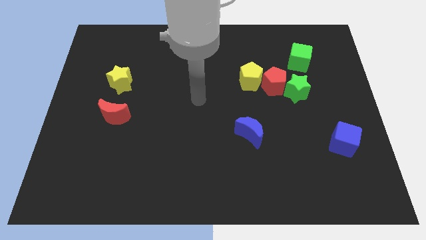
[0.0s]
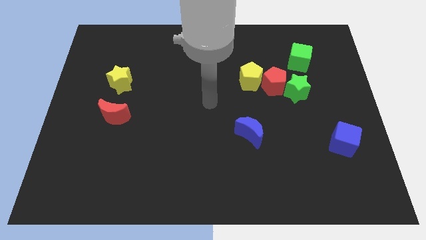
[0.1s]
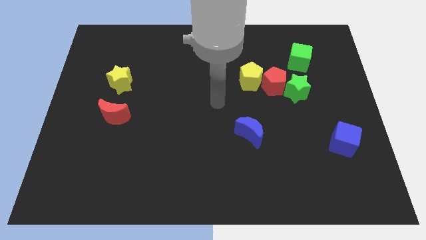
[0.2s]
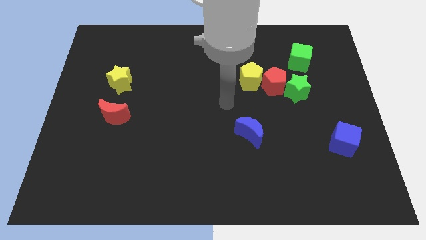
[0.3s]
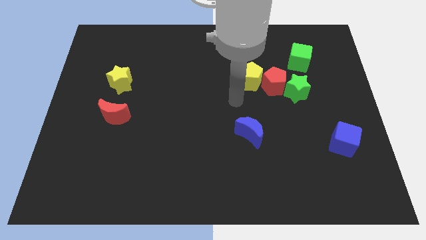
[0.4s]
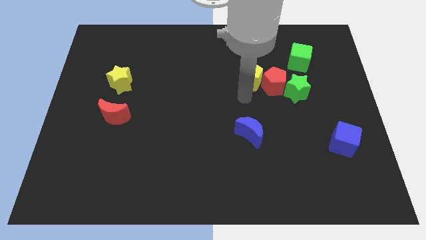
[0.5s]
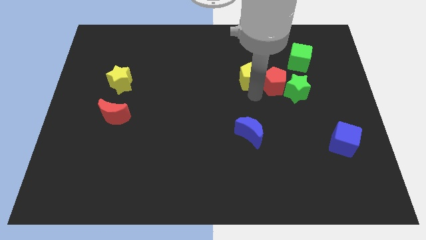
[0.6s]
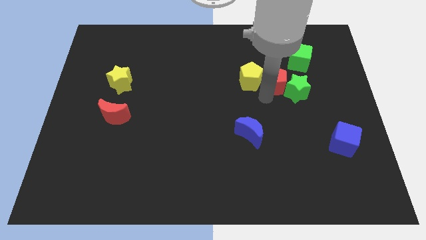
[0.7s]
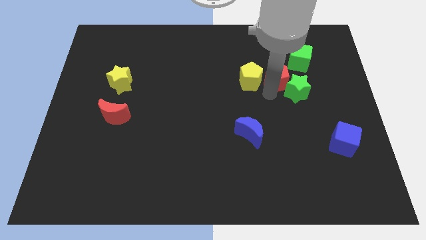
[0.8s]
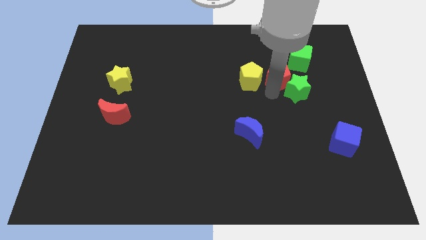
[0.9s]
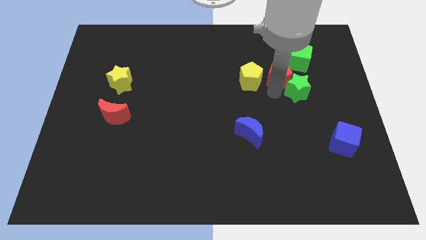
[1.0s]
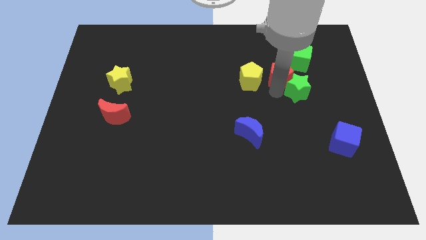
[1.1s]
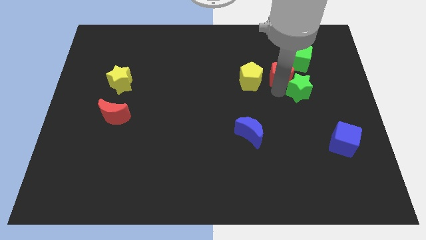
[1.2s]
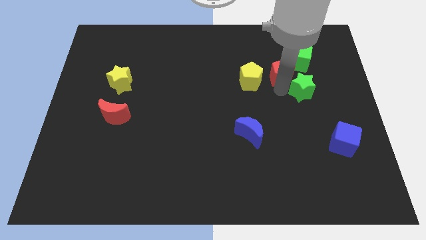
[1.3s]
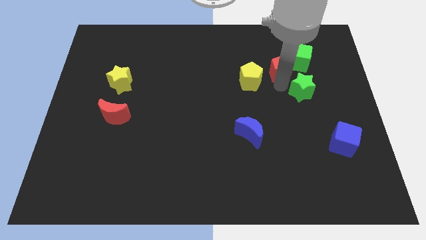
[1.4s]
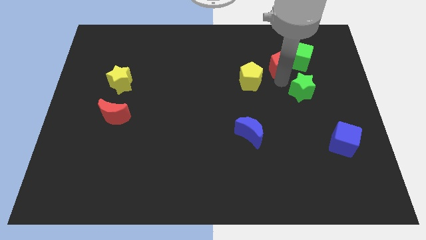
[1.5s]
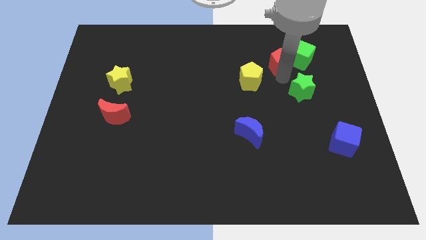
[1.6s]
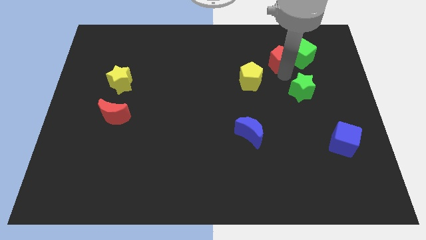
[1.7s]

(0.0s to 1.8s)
separate the green star from the red pentagon

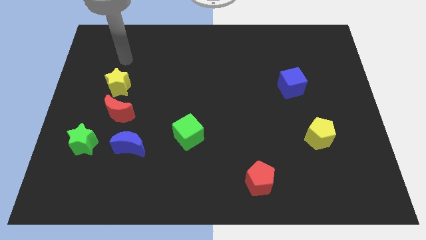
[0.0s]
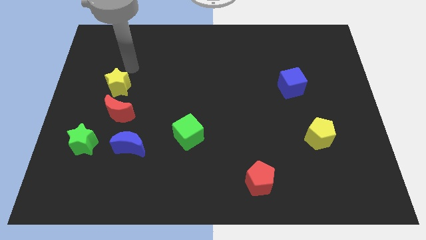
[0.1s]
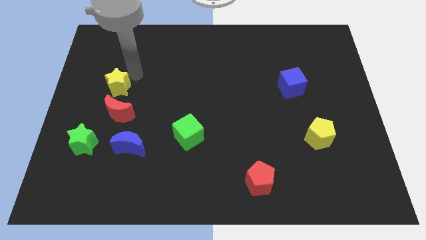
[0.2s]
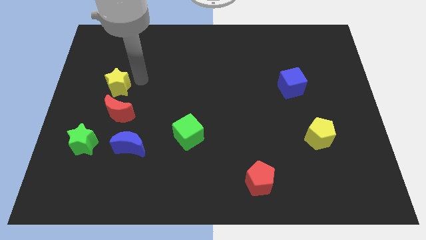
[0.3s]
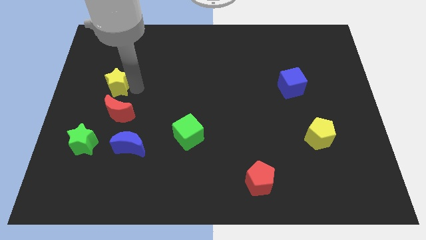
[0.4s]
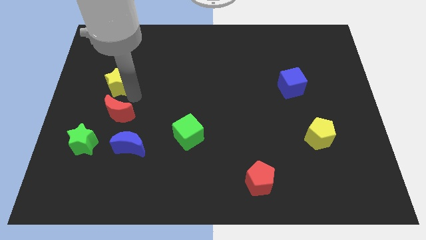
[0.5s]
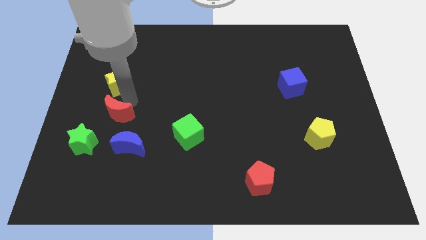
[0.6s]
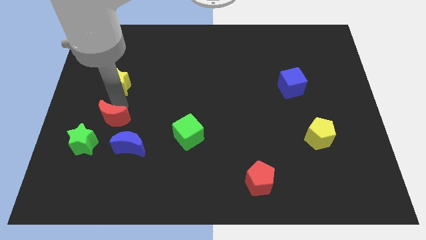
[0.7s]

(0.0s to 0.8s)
move the yellow star away from the red moon

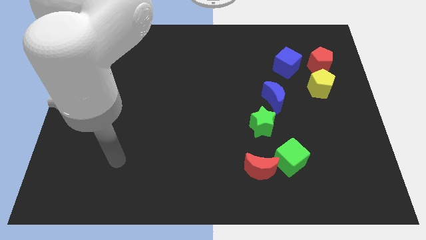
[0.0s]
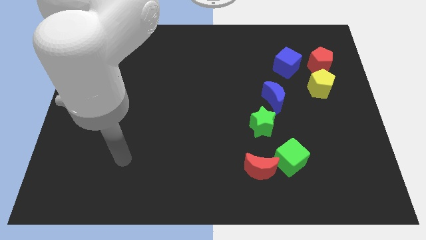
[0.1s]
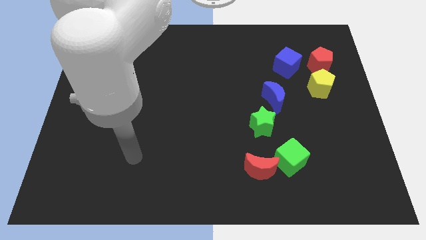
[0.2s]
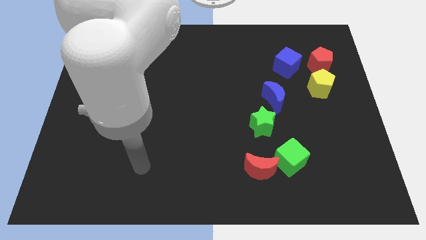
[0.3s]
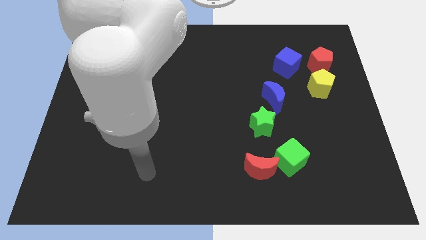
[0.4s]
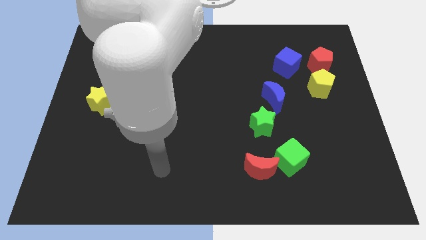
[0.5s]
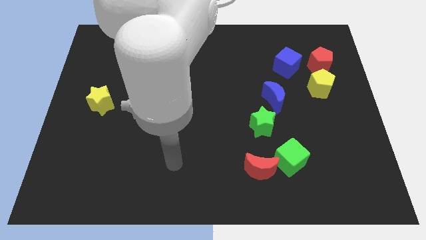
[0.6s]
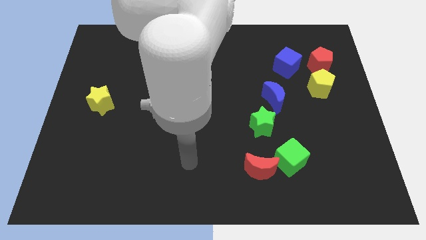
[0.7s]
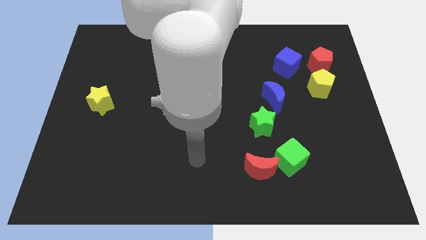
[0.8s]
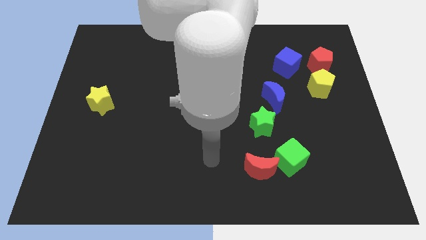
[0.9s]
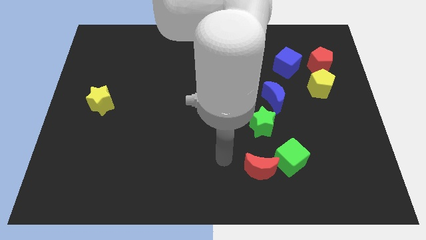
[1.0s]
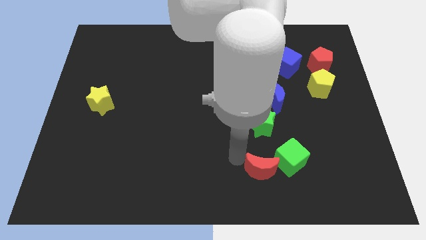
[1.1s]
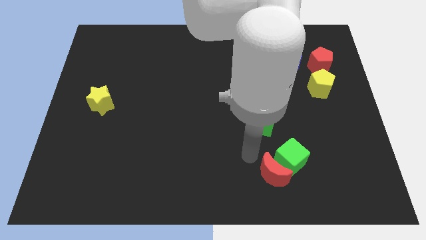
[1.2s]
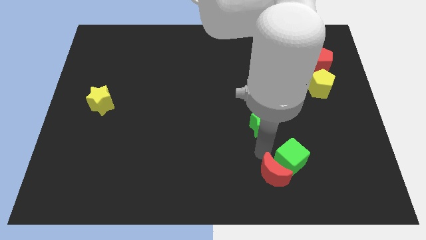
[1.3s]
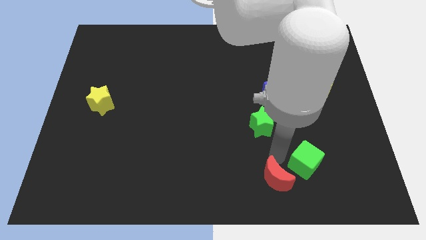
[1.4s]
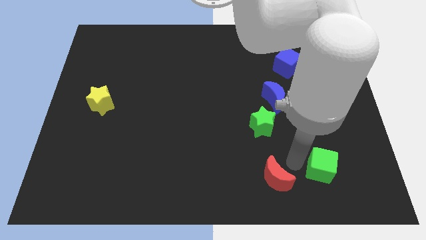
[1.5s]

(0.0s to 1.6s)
move the red moon away from the green cube

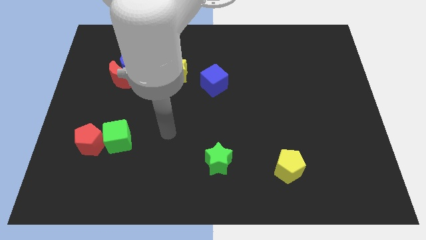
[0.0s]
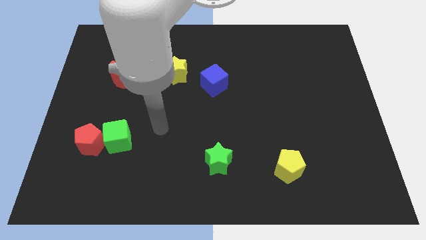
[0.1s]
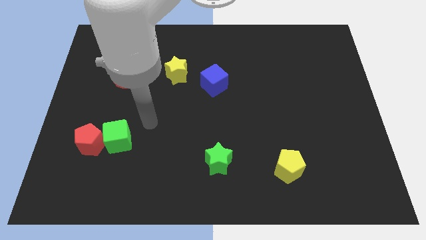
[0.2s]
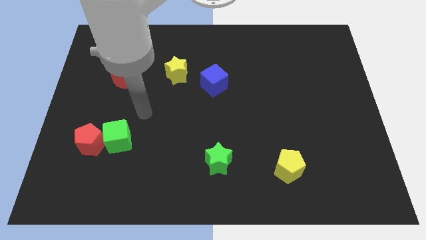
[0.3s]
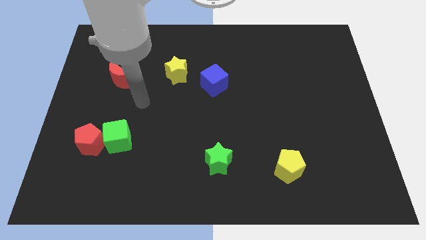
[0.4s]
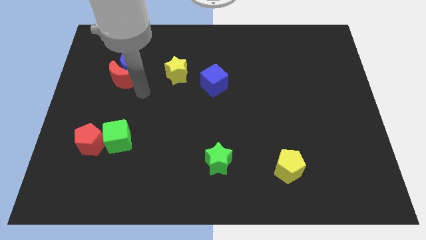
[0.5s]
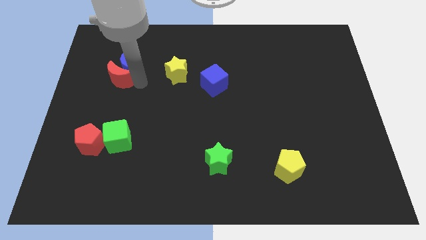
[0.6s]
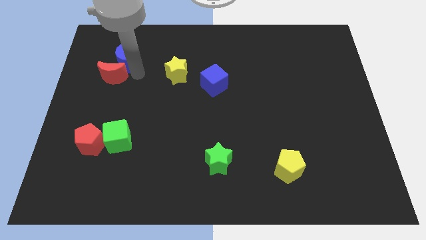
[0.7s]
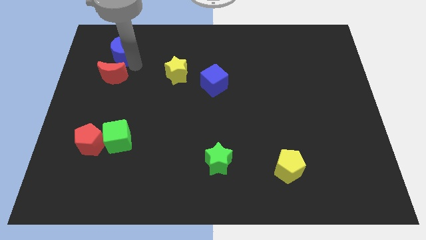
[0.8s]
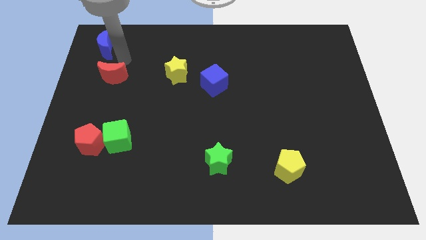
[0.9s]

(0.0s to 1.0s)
pull the red moon apart from the blue moon

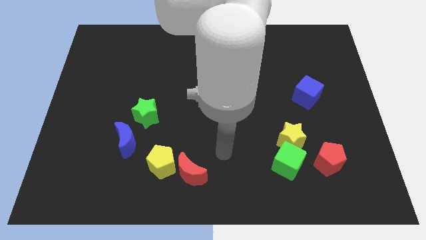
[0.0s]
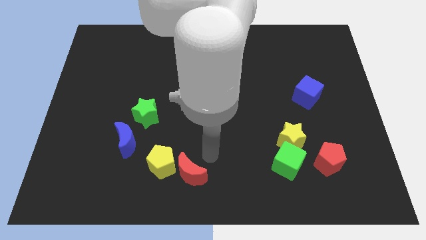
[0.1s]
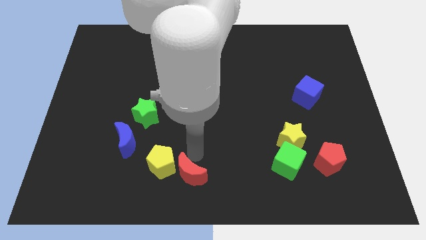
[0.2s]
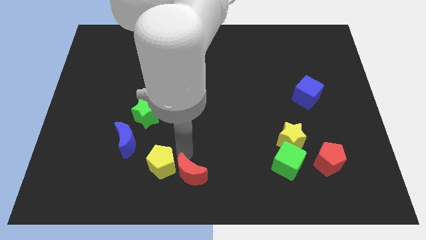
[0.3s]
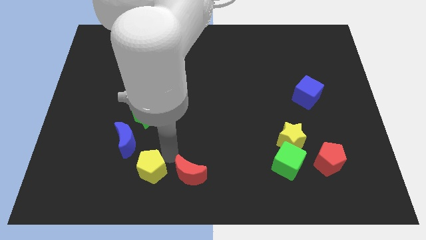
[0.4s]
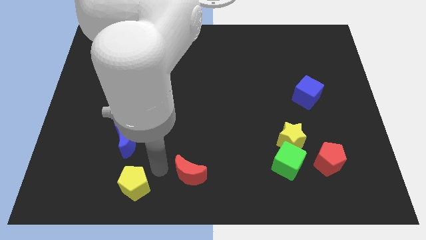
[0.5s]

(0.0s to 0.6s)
separate the red moon from the yellow pentagon

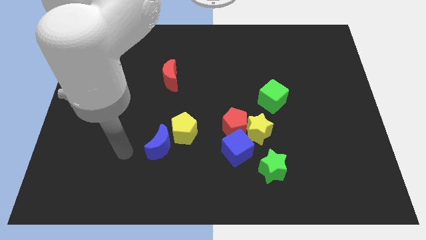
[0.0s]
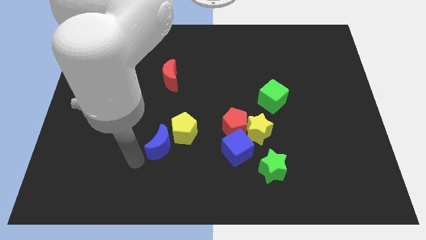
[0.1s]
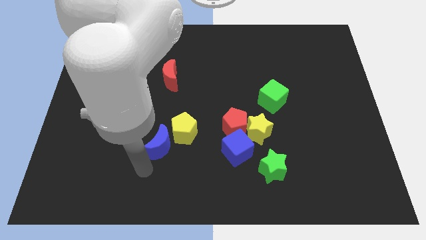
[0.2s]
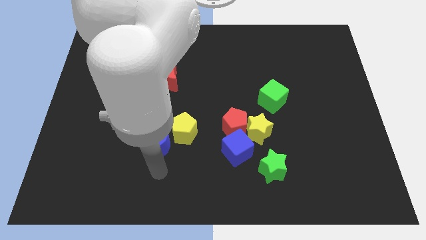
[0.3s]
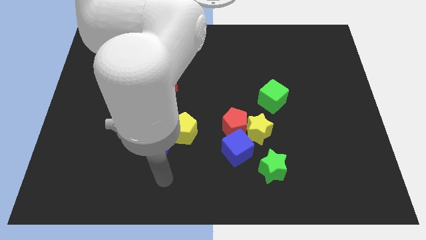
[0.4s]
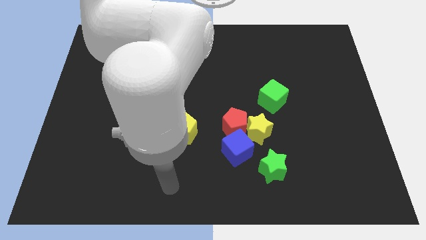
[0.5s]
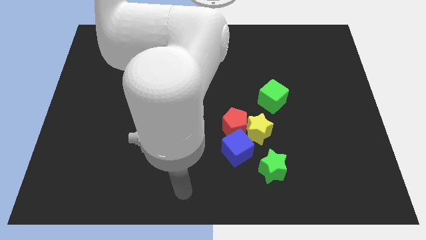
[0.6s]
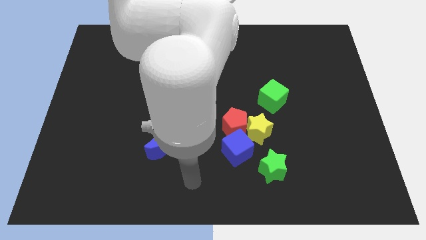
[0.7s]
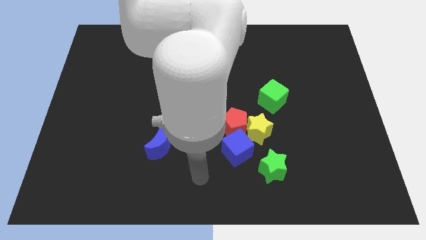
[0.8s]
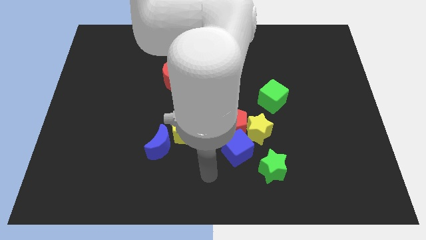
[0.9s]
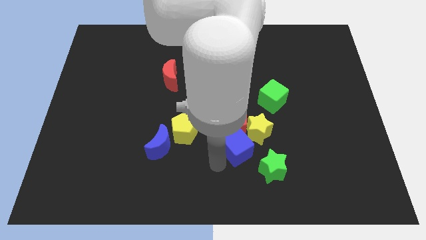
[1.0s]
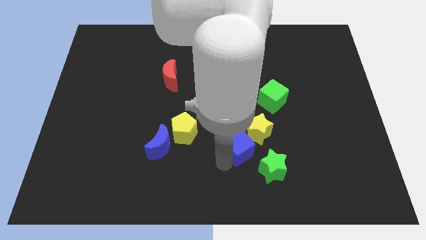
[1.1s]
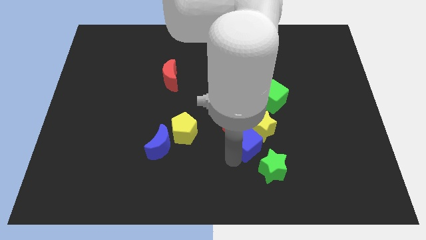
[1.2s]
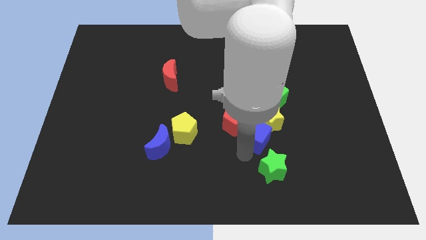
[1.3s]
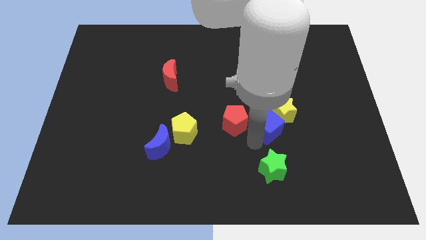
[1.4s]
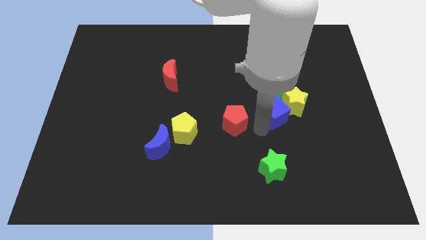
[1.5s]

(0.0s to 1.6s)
separate the red pentagon from the yellow star and blue cube

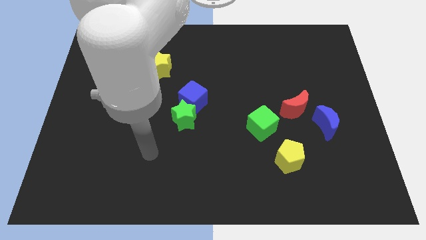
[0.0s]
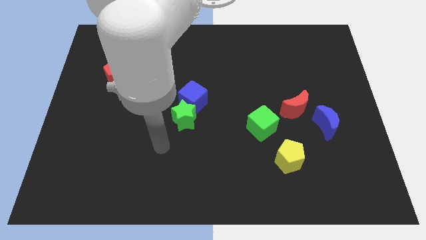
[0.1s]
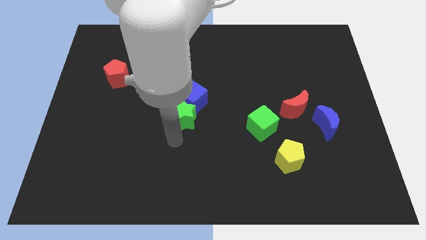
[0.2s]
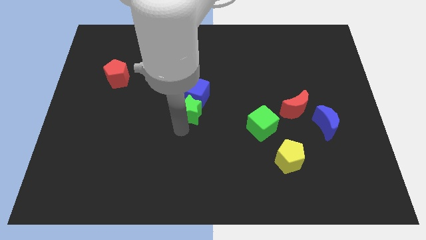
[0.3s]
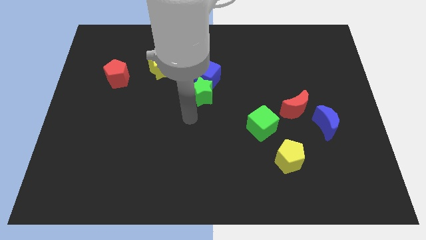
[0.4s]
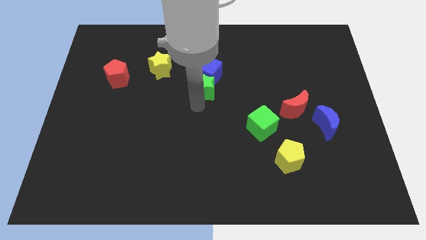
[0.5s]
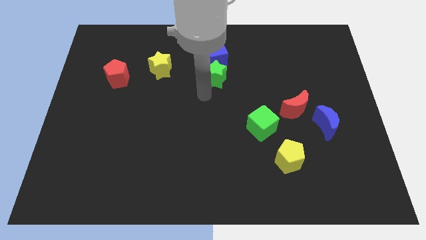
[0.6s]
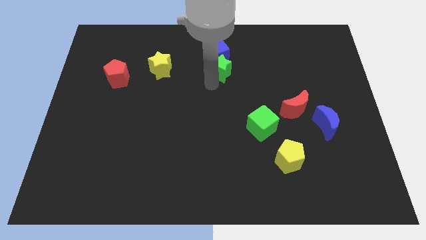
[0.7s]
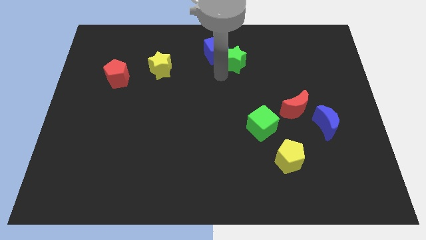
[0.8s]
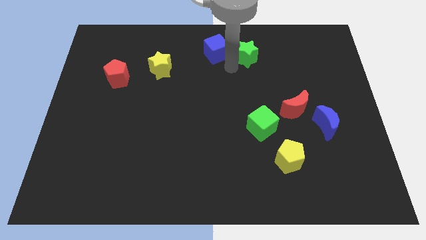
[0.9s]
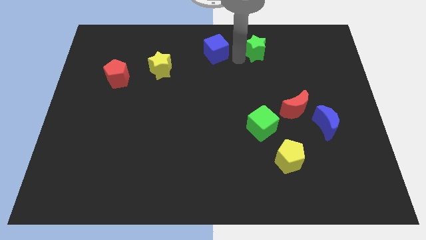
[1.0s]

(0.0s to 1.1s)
move the blue cube away from the green star

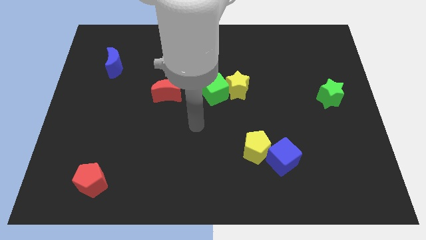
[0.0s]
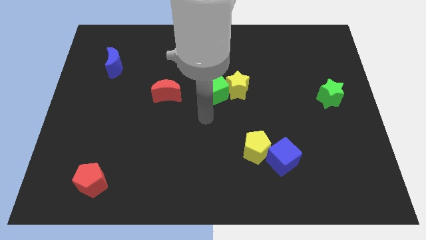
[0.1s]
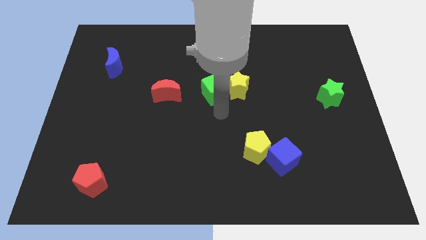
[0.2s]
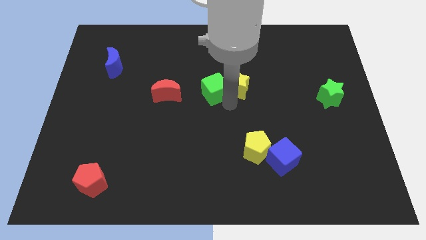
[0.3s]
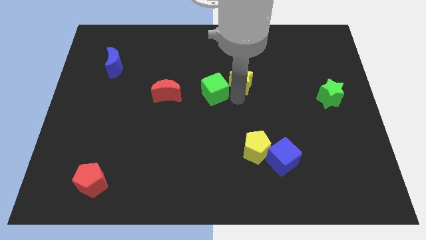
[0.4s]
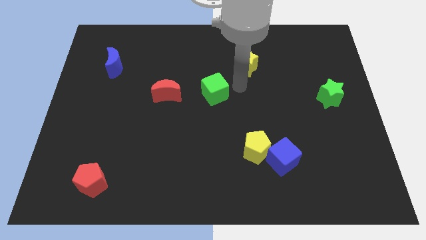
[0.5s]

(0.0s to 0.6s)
separate the green cube from the yellow star

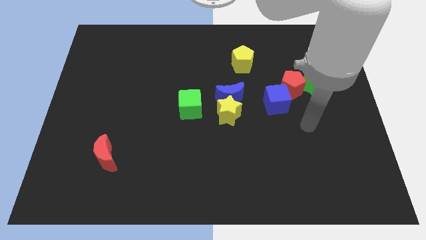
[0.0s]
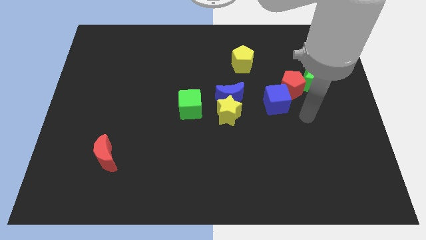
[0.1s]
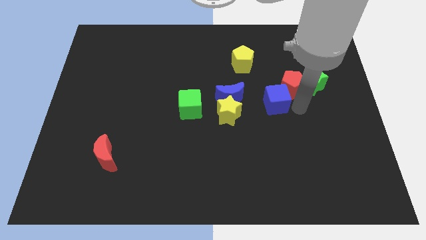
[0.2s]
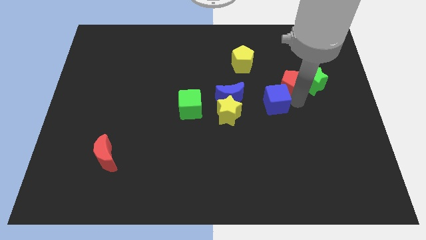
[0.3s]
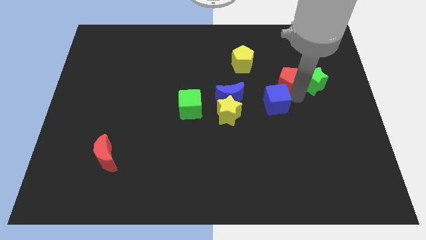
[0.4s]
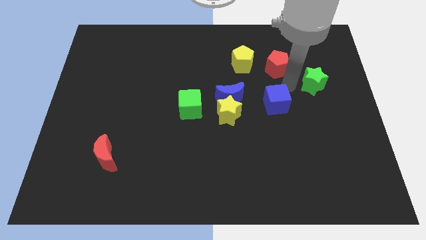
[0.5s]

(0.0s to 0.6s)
pull the blue cube apart from the red pentagon
